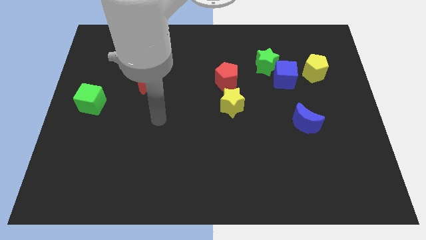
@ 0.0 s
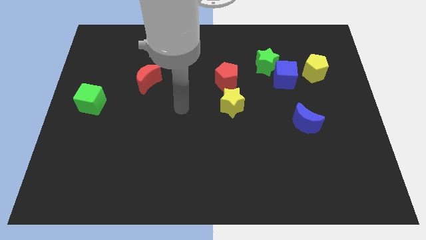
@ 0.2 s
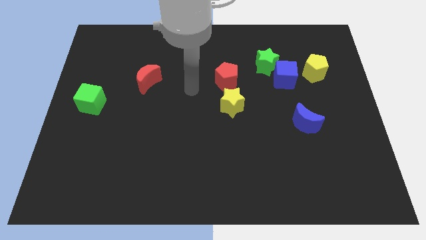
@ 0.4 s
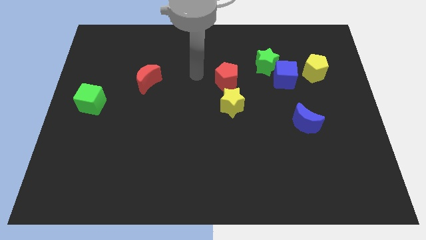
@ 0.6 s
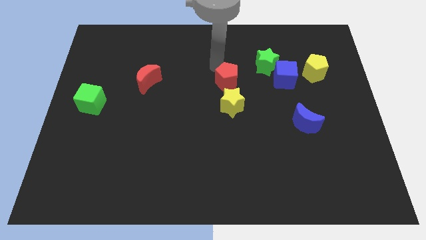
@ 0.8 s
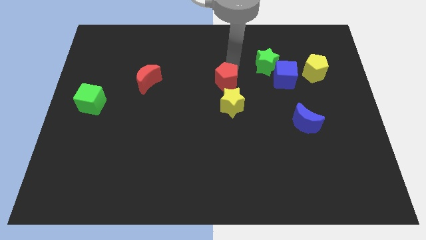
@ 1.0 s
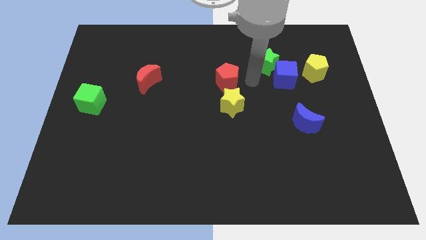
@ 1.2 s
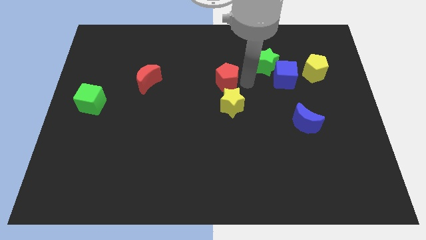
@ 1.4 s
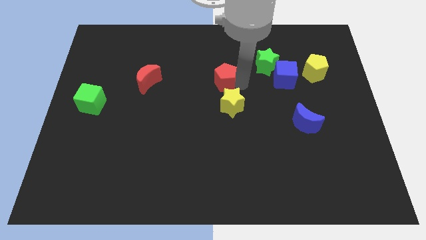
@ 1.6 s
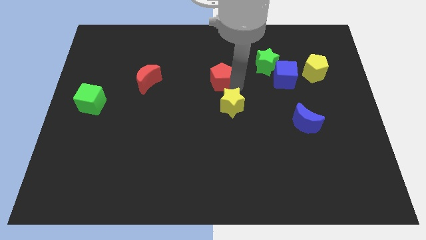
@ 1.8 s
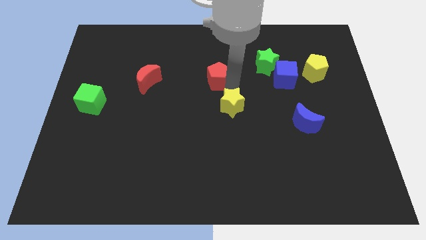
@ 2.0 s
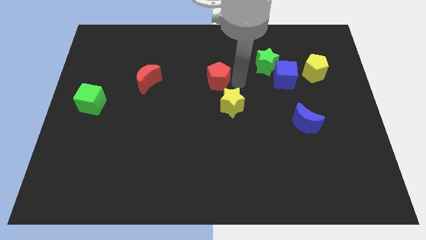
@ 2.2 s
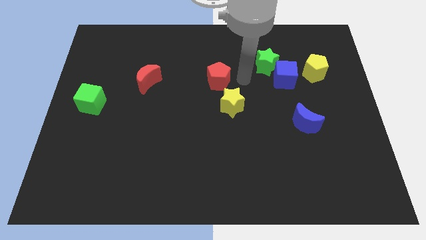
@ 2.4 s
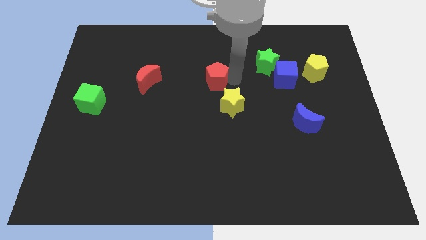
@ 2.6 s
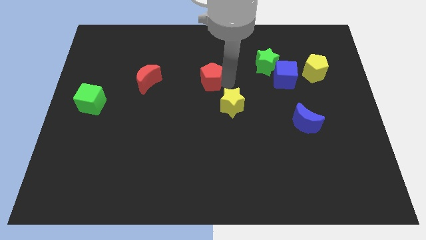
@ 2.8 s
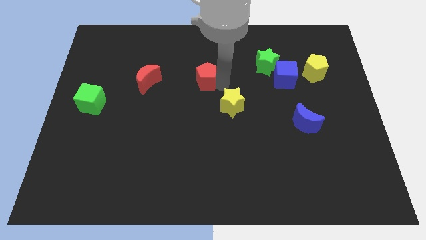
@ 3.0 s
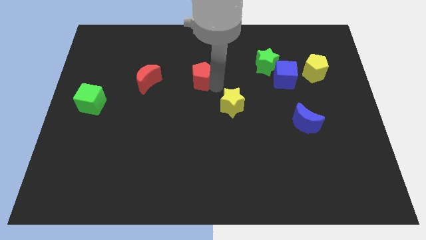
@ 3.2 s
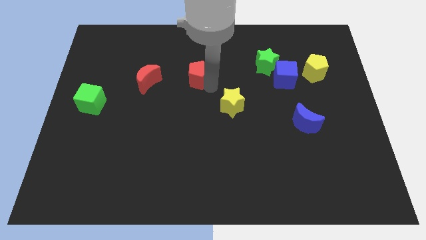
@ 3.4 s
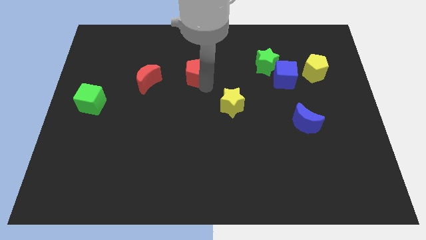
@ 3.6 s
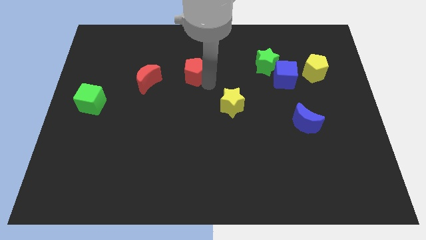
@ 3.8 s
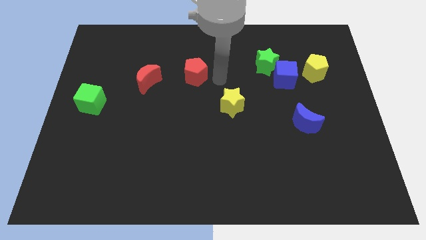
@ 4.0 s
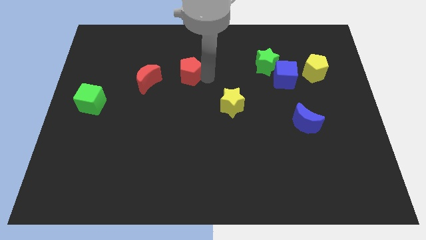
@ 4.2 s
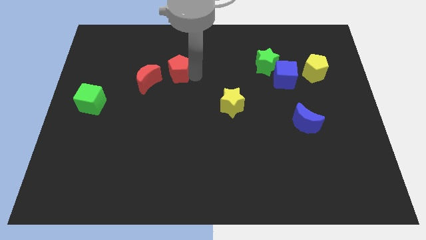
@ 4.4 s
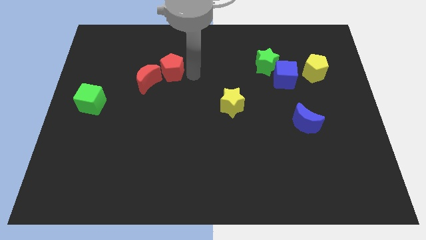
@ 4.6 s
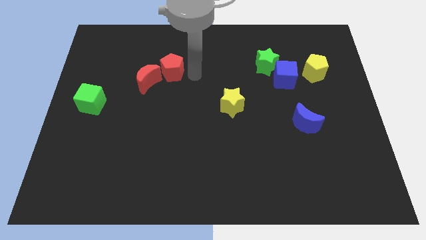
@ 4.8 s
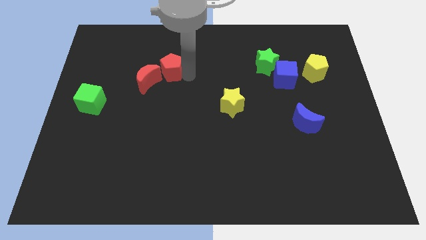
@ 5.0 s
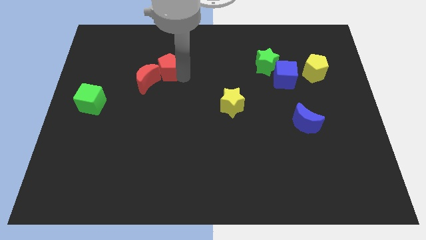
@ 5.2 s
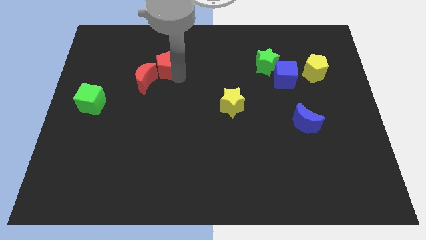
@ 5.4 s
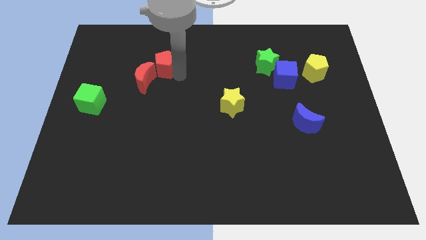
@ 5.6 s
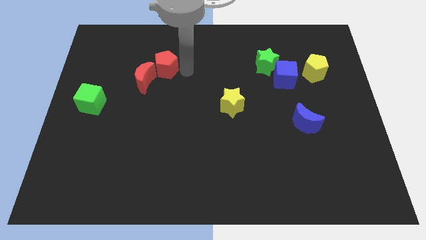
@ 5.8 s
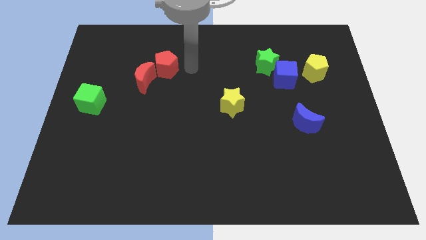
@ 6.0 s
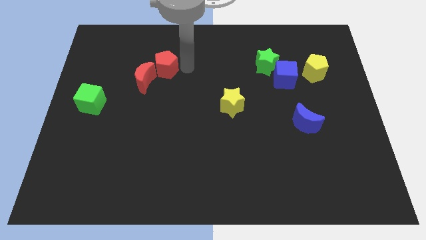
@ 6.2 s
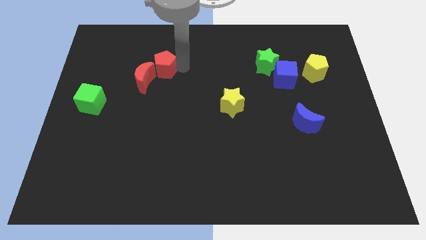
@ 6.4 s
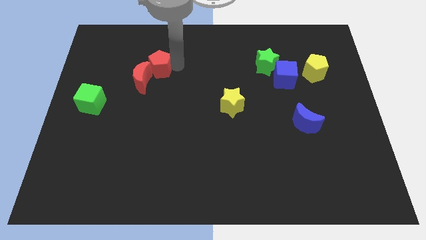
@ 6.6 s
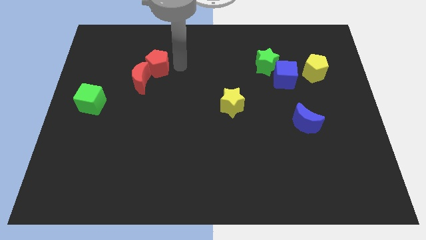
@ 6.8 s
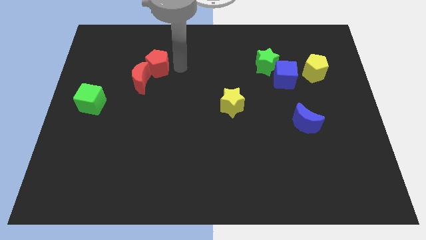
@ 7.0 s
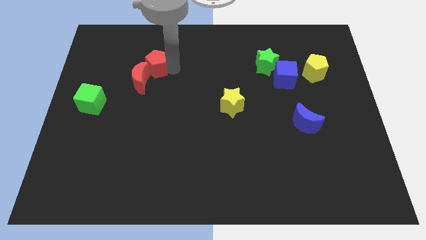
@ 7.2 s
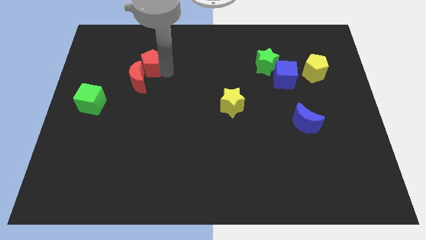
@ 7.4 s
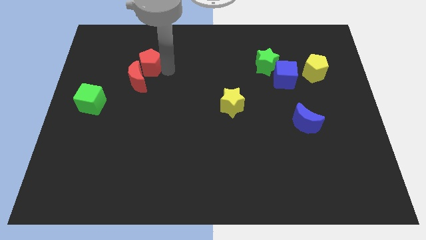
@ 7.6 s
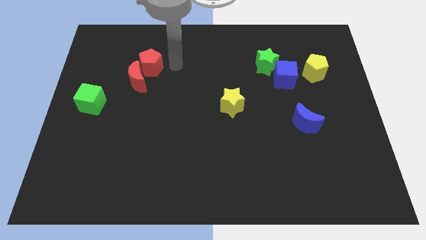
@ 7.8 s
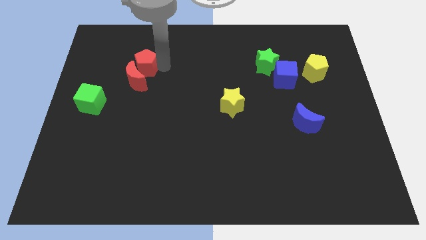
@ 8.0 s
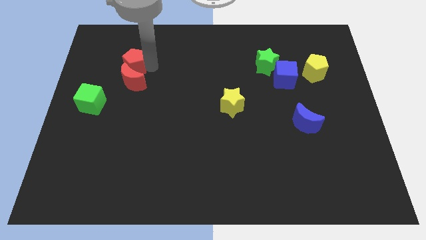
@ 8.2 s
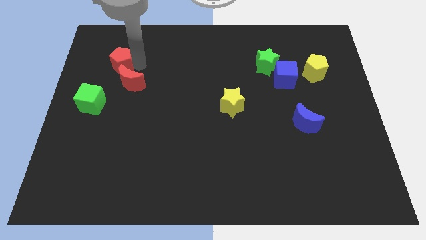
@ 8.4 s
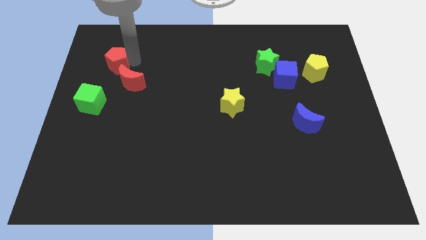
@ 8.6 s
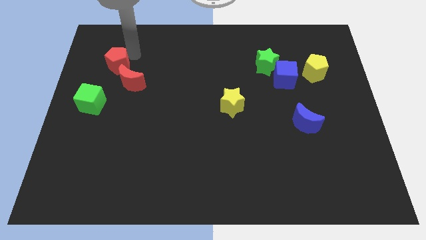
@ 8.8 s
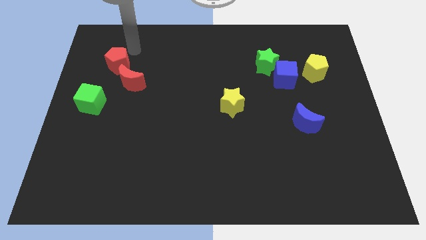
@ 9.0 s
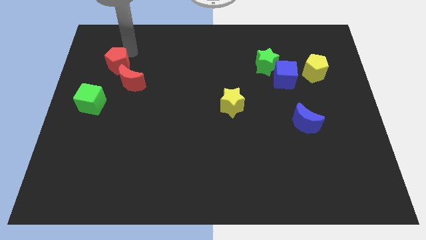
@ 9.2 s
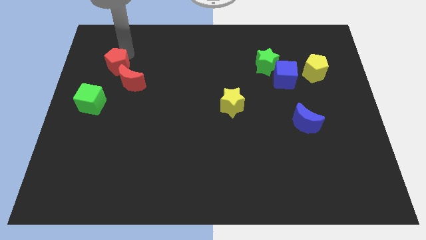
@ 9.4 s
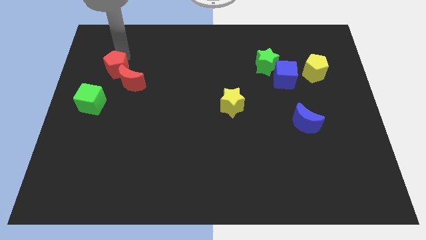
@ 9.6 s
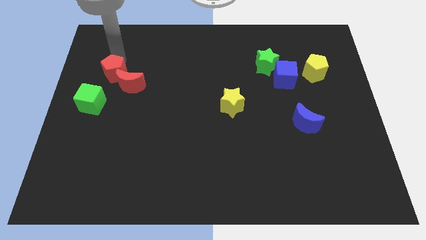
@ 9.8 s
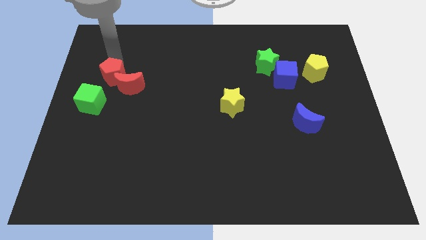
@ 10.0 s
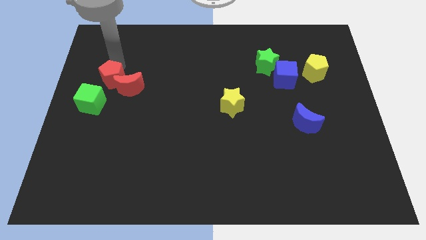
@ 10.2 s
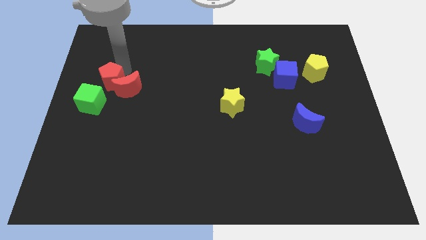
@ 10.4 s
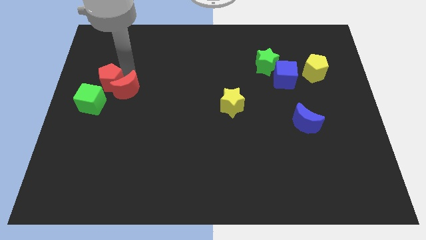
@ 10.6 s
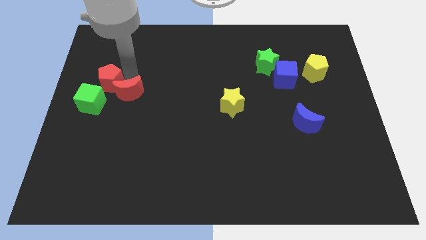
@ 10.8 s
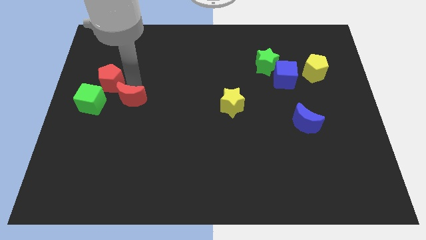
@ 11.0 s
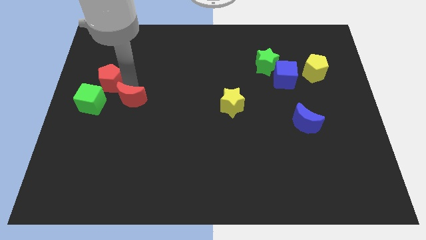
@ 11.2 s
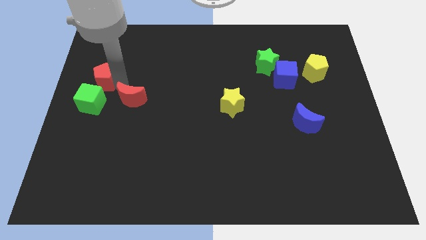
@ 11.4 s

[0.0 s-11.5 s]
push the red pentagon to the left side
